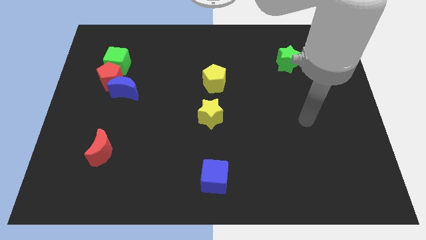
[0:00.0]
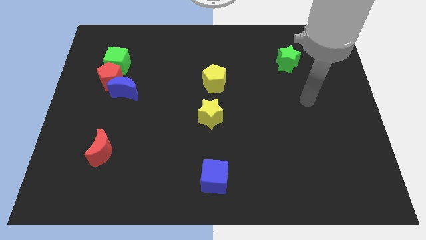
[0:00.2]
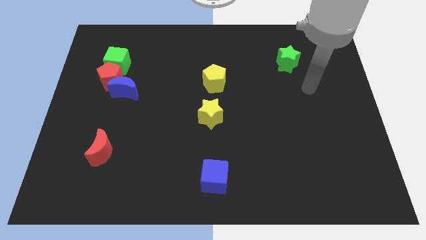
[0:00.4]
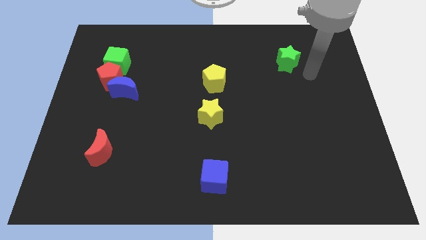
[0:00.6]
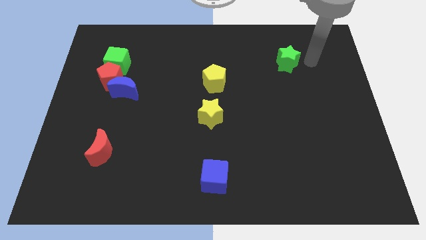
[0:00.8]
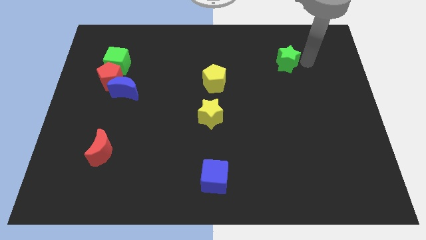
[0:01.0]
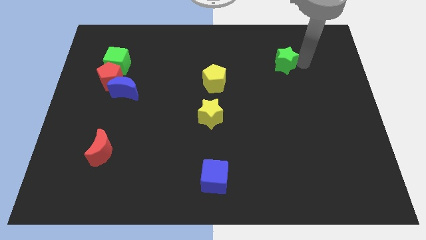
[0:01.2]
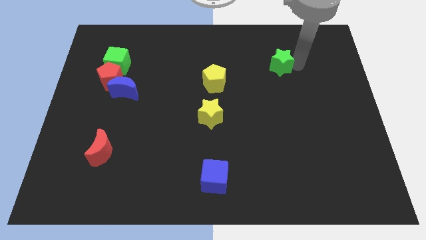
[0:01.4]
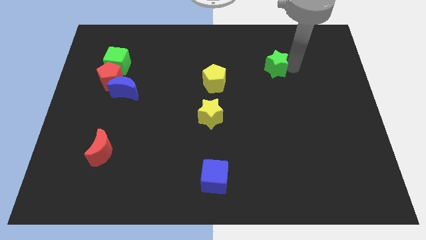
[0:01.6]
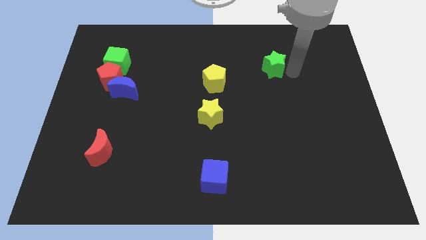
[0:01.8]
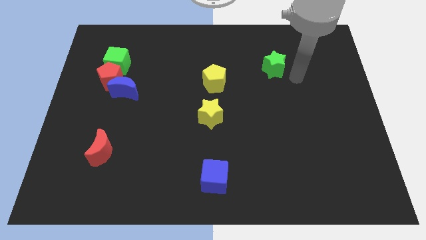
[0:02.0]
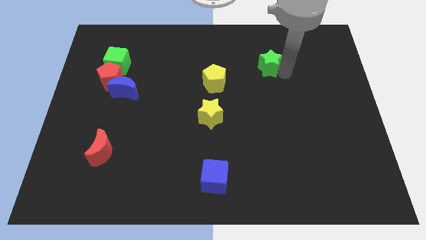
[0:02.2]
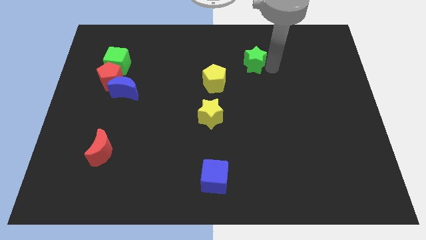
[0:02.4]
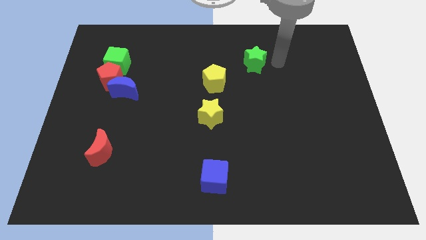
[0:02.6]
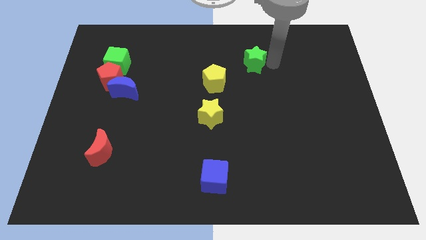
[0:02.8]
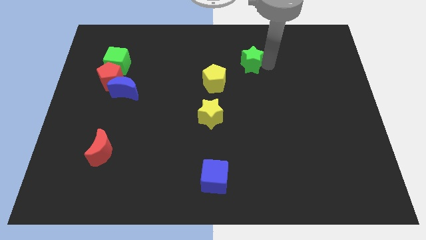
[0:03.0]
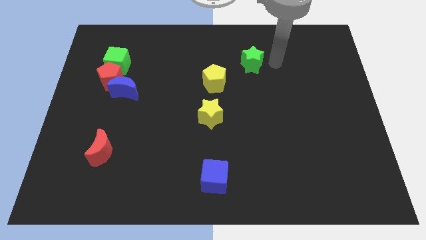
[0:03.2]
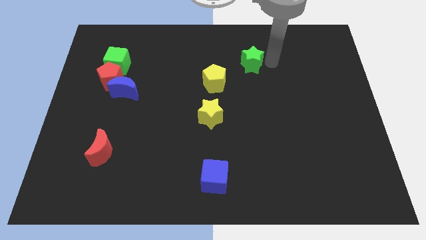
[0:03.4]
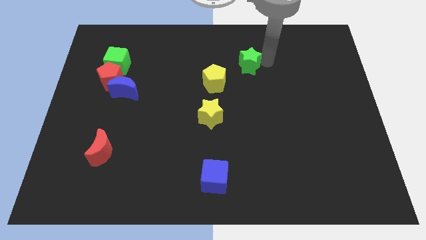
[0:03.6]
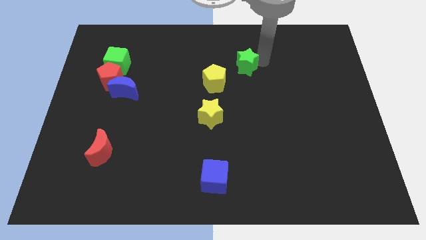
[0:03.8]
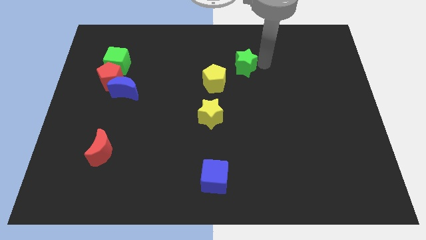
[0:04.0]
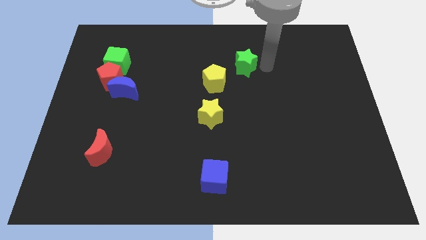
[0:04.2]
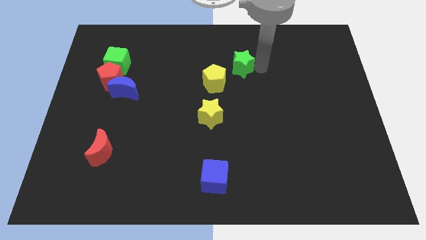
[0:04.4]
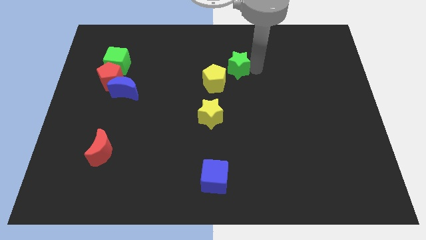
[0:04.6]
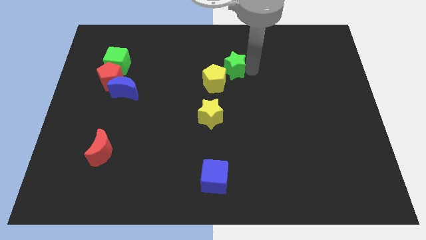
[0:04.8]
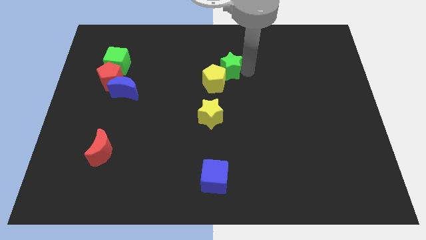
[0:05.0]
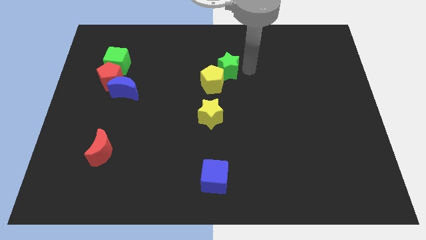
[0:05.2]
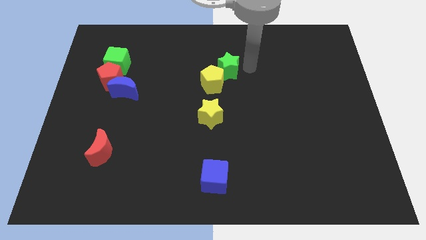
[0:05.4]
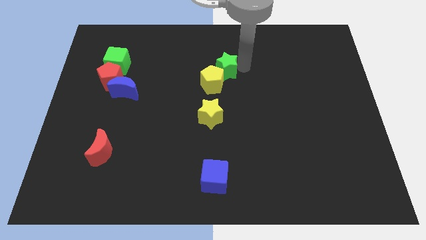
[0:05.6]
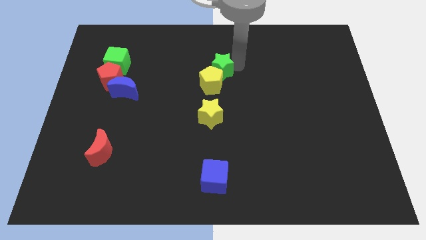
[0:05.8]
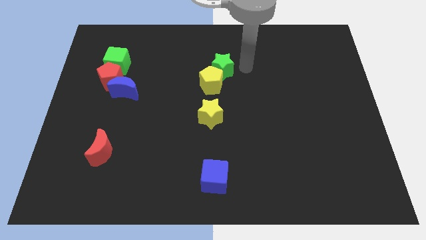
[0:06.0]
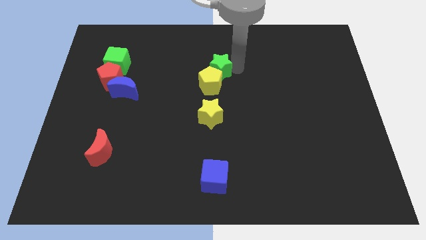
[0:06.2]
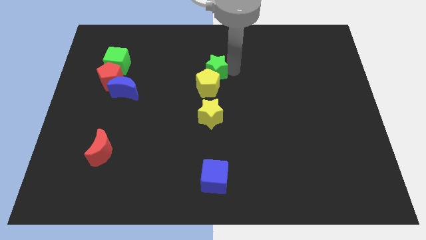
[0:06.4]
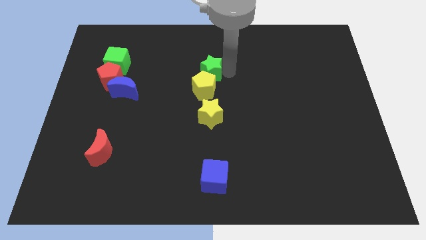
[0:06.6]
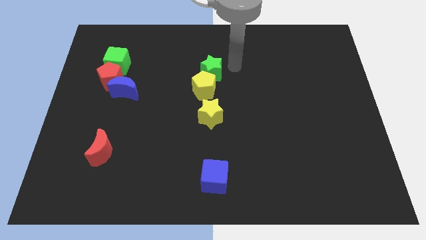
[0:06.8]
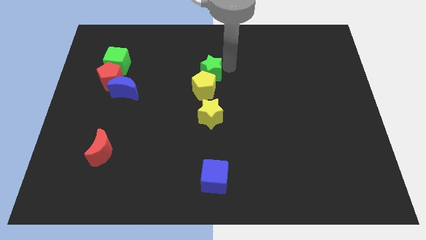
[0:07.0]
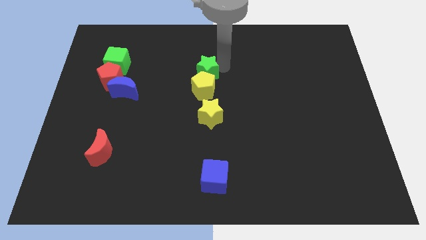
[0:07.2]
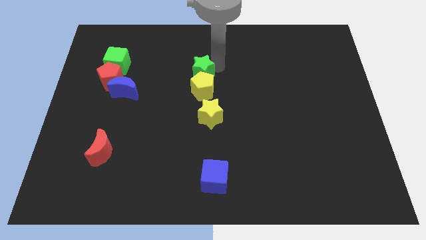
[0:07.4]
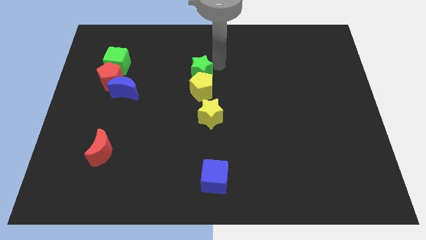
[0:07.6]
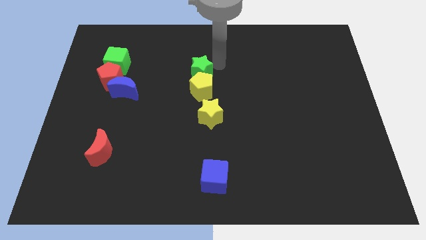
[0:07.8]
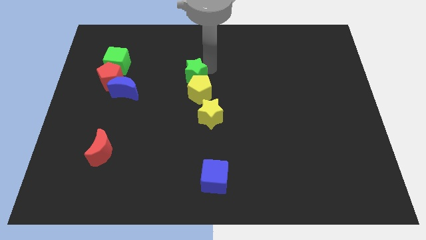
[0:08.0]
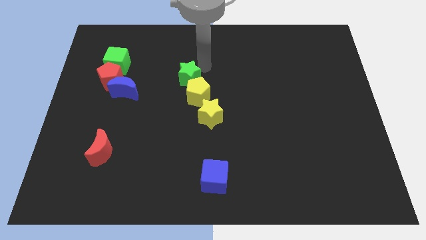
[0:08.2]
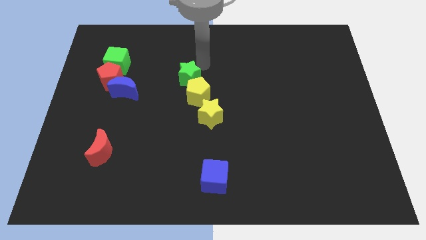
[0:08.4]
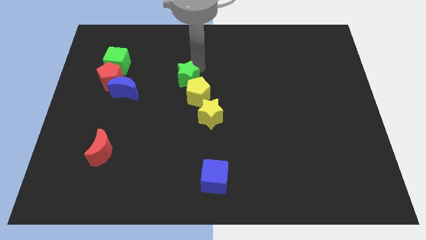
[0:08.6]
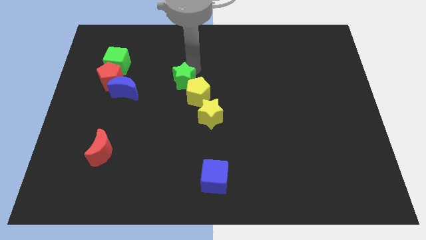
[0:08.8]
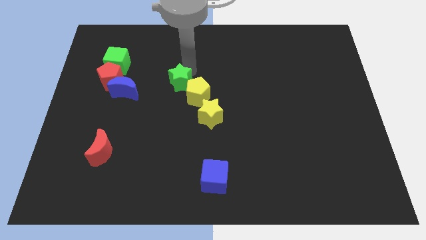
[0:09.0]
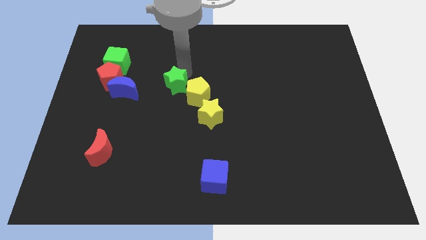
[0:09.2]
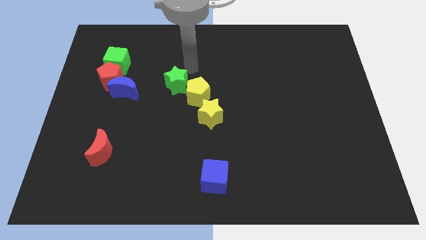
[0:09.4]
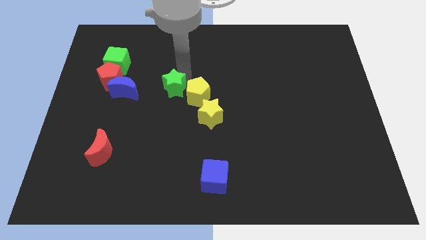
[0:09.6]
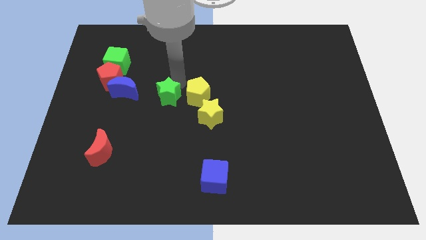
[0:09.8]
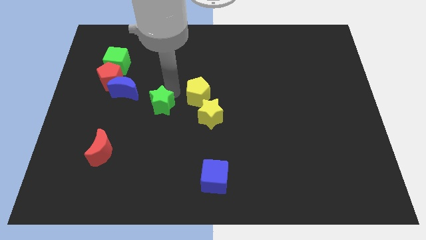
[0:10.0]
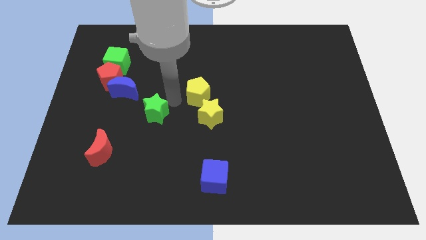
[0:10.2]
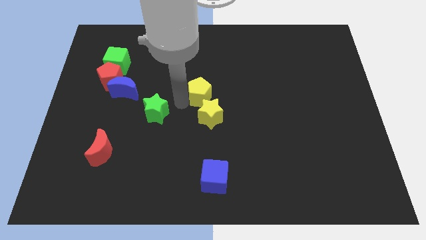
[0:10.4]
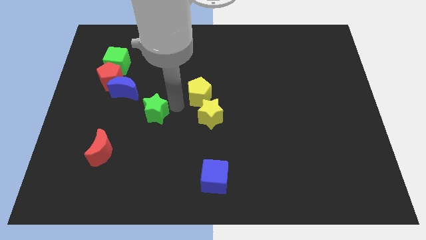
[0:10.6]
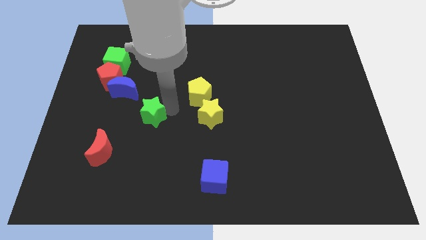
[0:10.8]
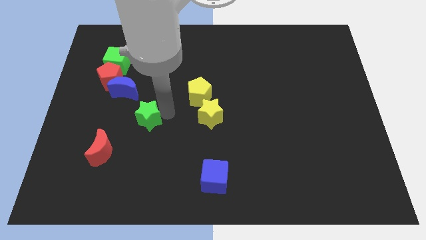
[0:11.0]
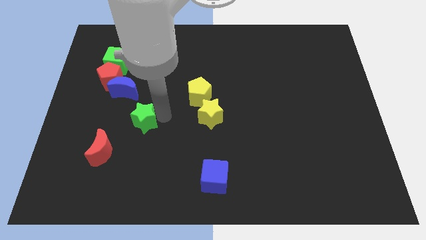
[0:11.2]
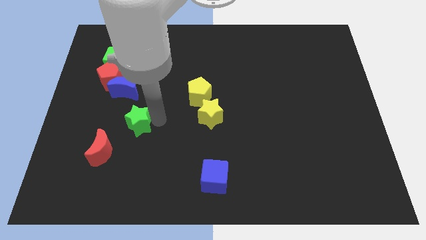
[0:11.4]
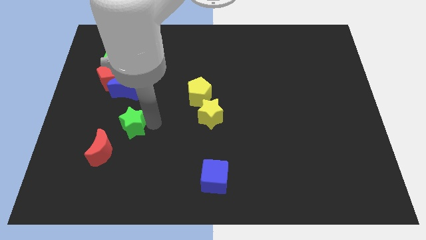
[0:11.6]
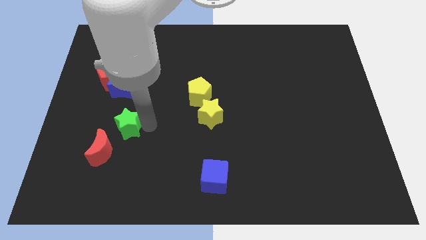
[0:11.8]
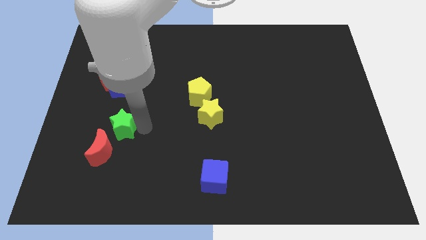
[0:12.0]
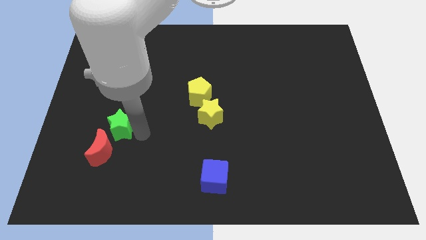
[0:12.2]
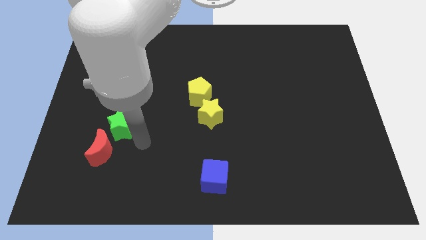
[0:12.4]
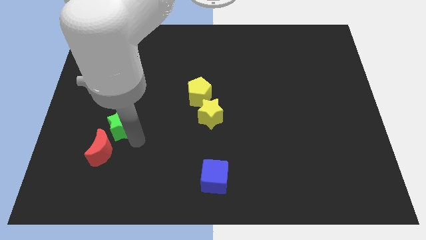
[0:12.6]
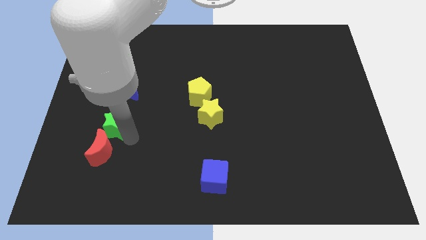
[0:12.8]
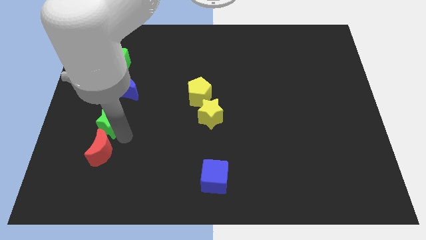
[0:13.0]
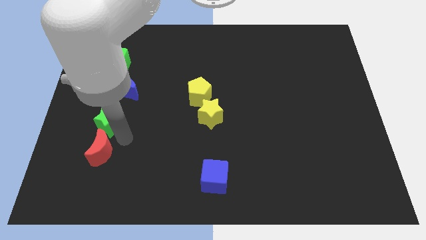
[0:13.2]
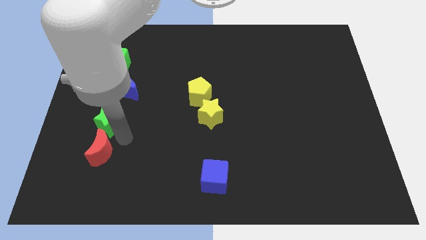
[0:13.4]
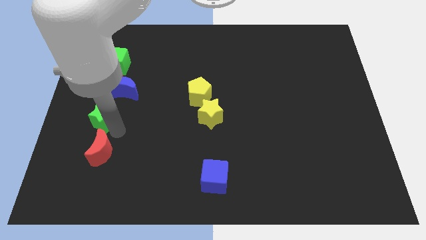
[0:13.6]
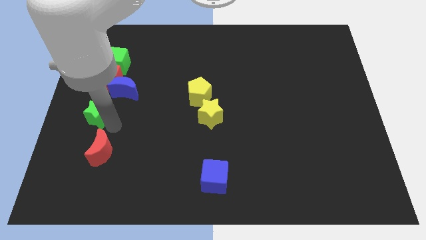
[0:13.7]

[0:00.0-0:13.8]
move the green star to the center left
